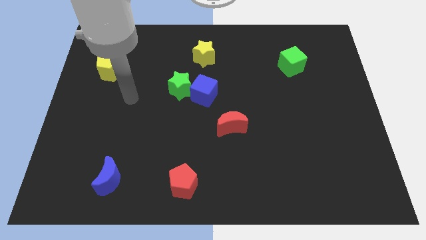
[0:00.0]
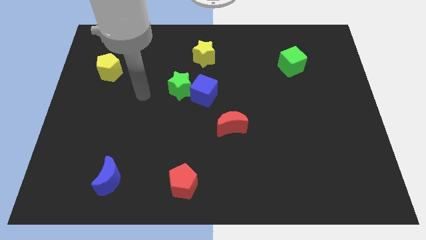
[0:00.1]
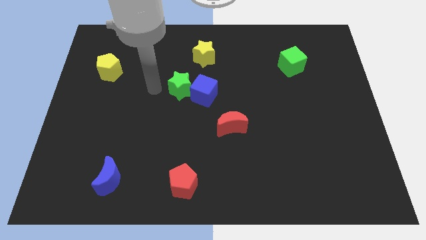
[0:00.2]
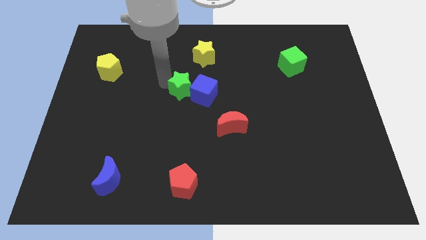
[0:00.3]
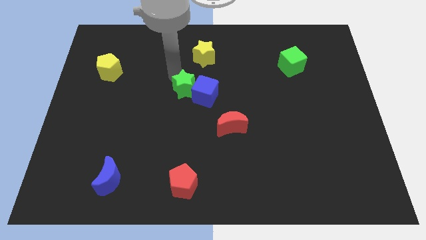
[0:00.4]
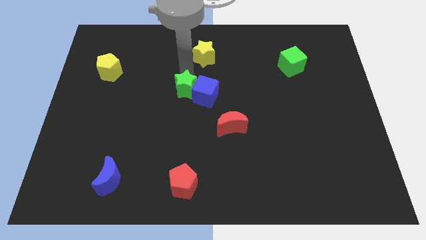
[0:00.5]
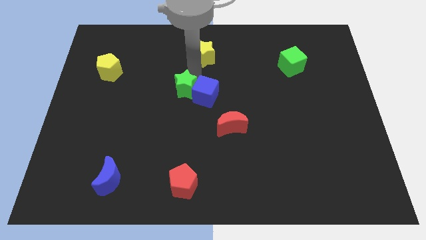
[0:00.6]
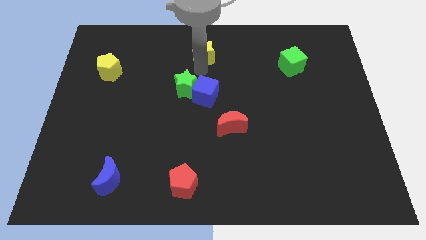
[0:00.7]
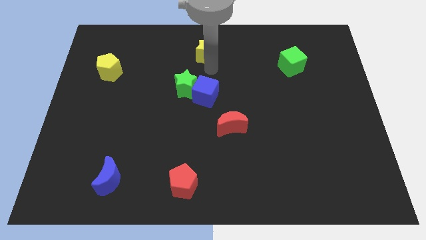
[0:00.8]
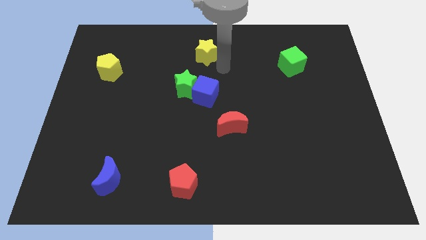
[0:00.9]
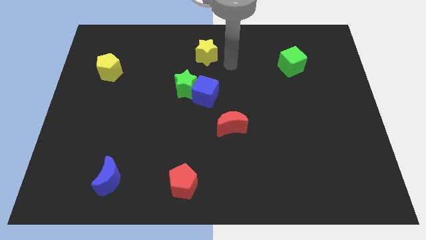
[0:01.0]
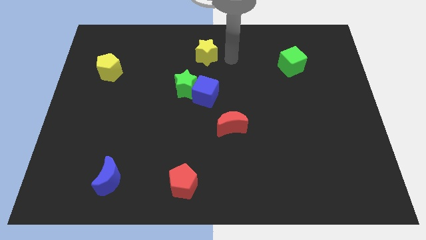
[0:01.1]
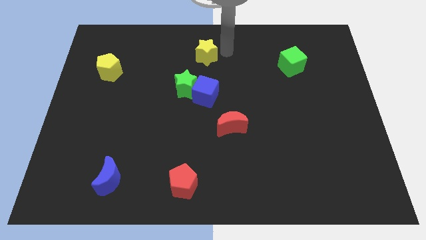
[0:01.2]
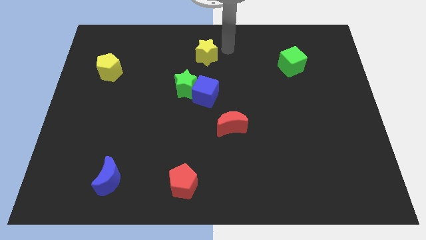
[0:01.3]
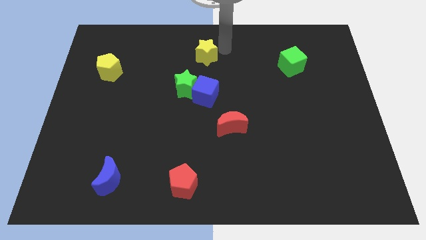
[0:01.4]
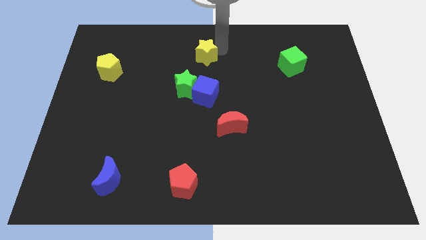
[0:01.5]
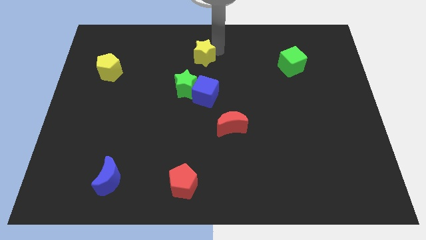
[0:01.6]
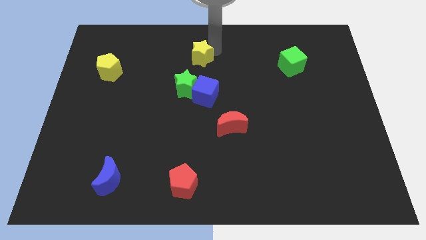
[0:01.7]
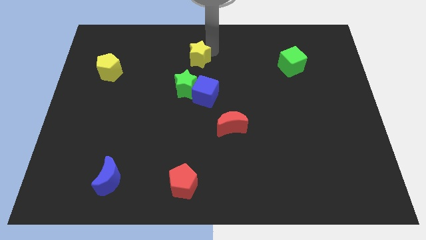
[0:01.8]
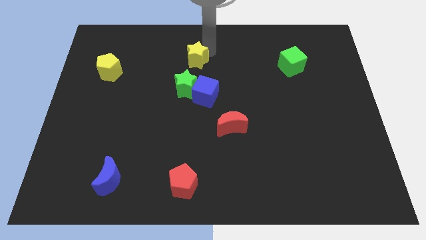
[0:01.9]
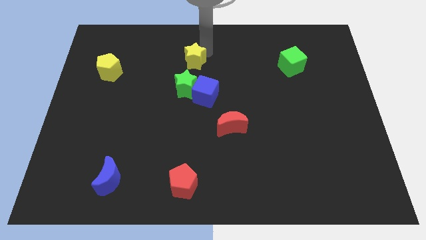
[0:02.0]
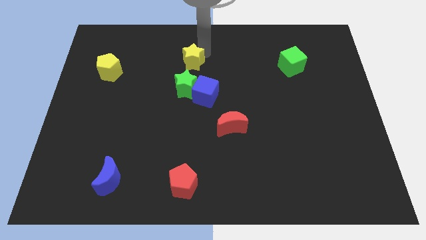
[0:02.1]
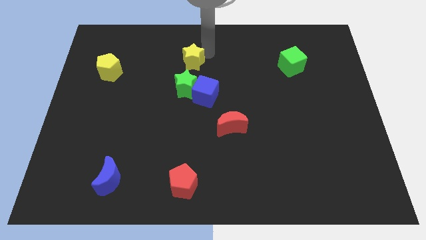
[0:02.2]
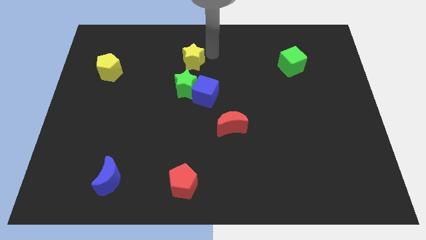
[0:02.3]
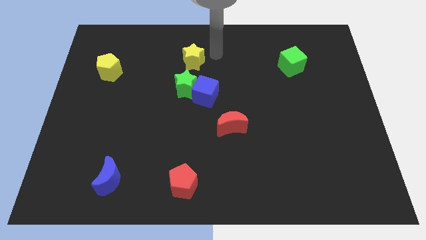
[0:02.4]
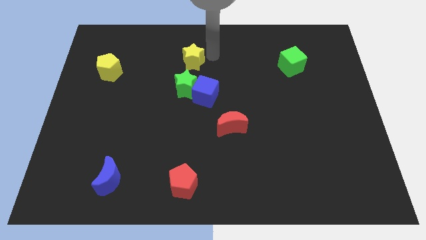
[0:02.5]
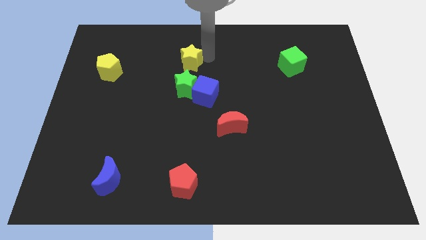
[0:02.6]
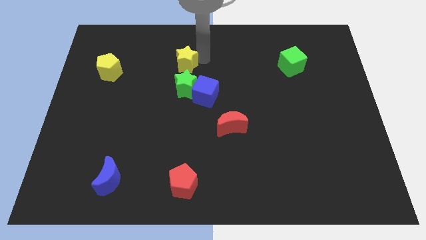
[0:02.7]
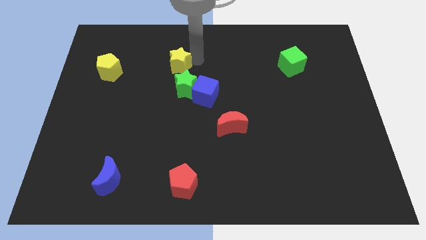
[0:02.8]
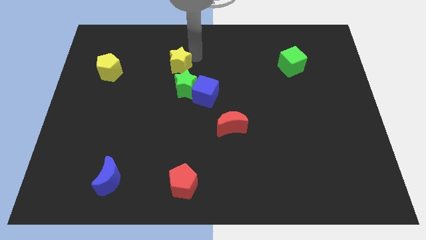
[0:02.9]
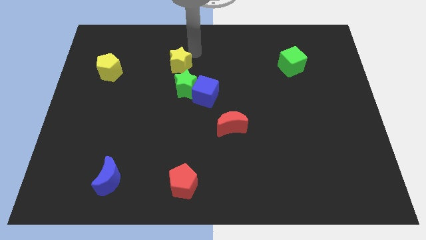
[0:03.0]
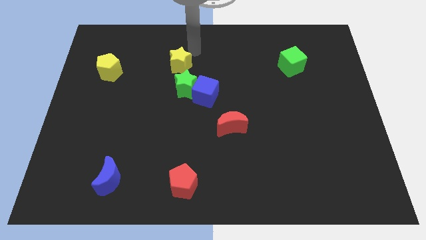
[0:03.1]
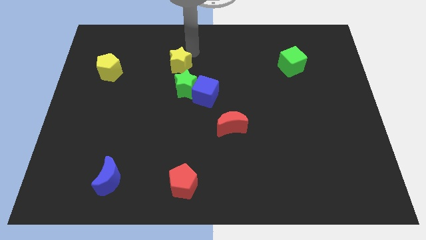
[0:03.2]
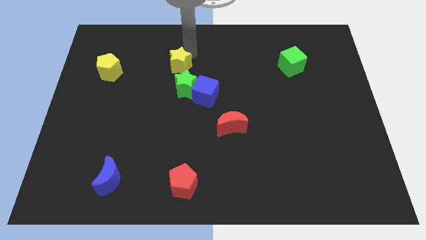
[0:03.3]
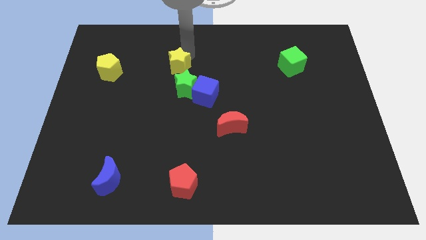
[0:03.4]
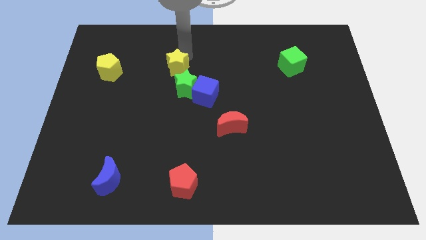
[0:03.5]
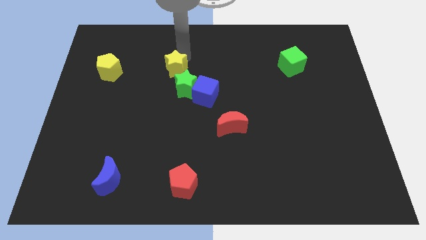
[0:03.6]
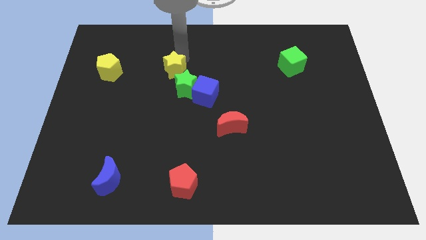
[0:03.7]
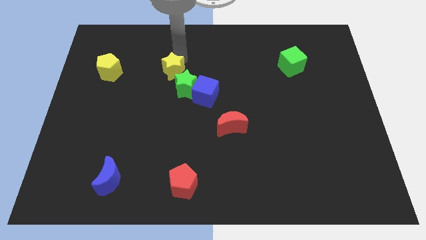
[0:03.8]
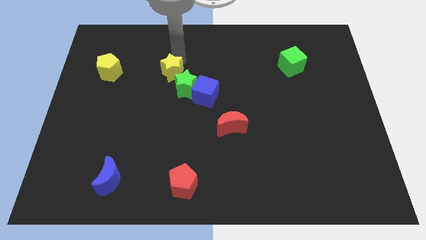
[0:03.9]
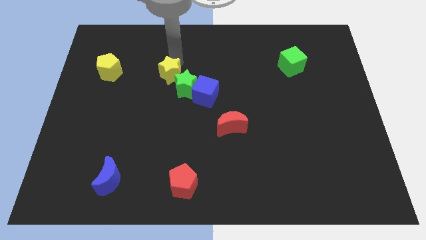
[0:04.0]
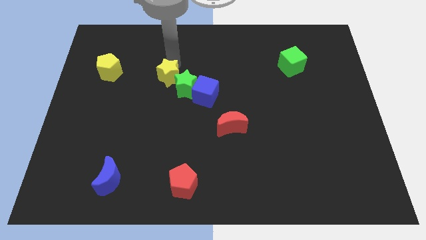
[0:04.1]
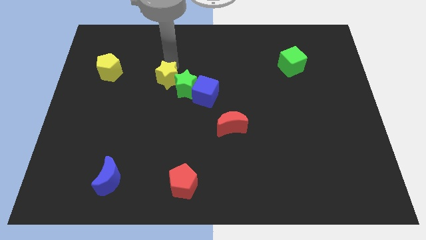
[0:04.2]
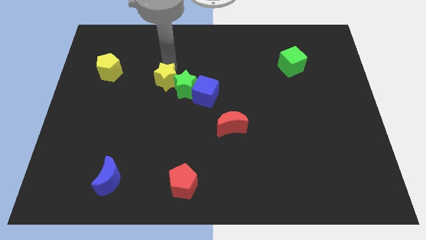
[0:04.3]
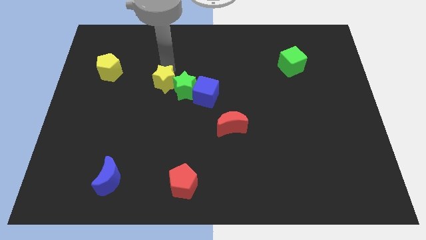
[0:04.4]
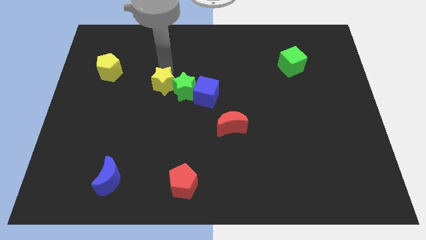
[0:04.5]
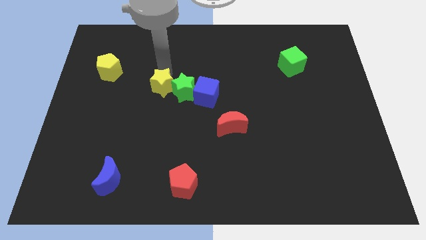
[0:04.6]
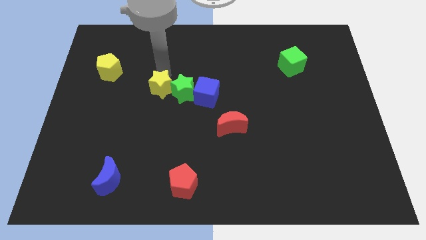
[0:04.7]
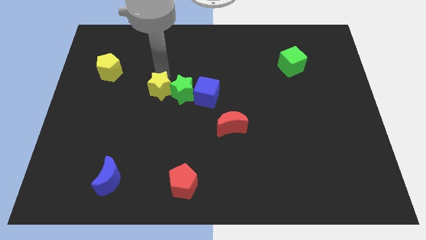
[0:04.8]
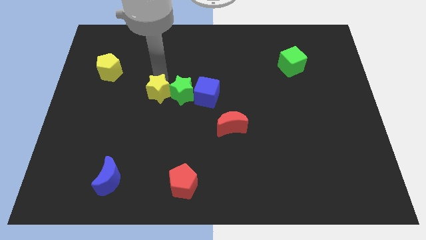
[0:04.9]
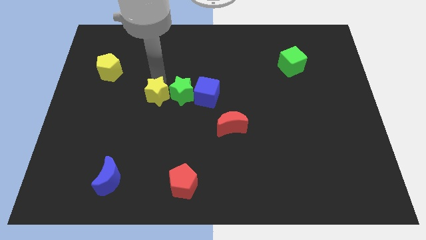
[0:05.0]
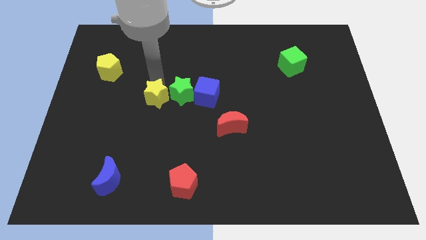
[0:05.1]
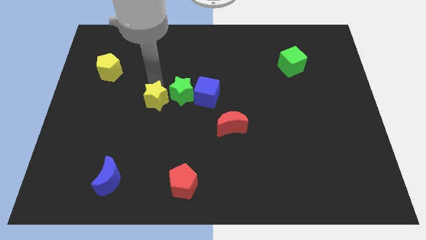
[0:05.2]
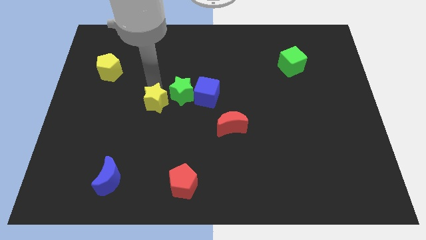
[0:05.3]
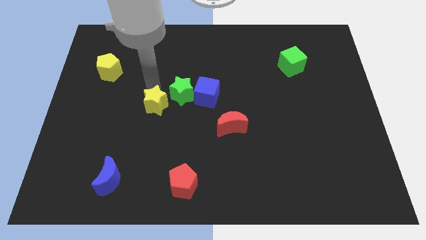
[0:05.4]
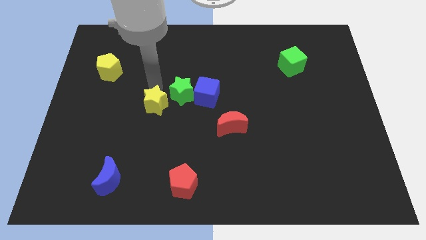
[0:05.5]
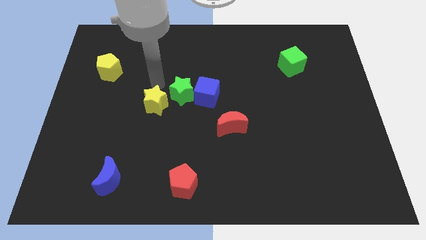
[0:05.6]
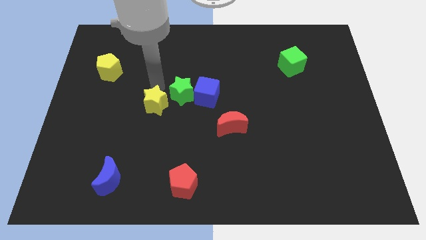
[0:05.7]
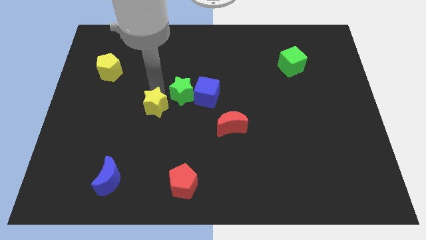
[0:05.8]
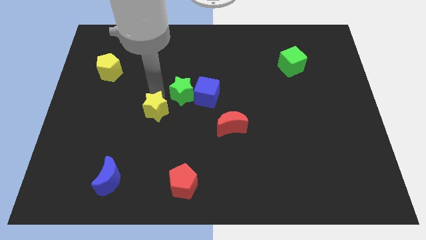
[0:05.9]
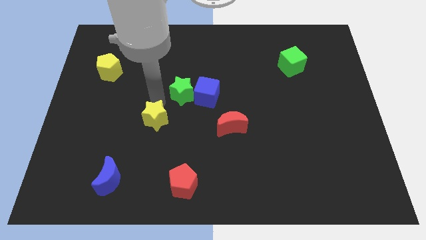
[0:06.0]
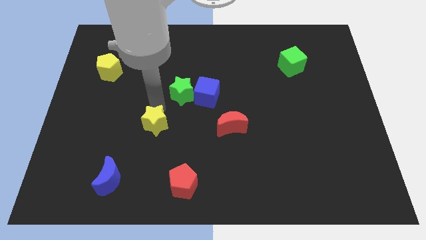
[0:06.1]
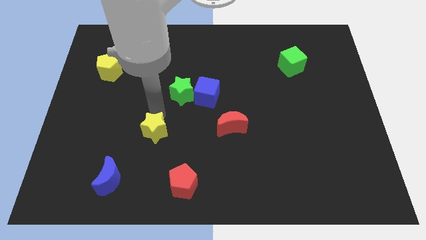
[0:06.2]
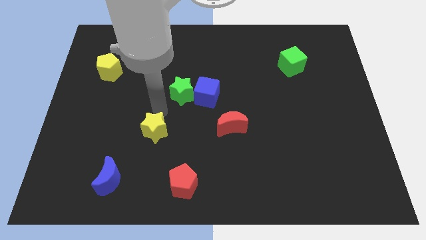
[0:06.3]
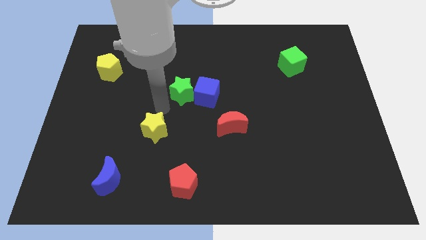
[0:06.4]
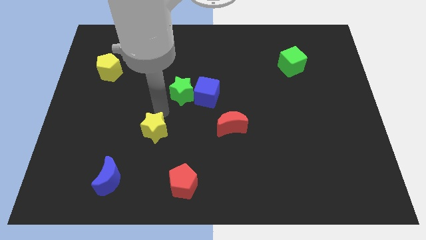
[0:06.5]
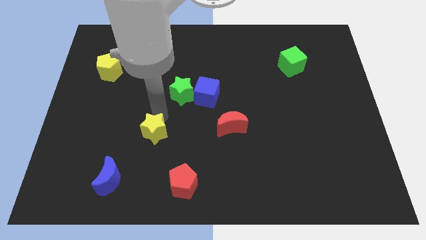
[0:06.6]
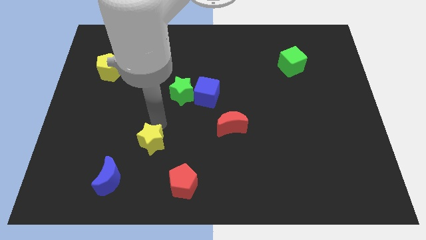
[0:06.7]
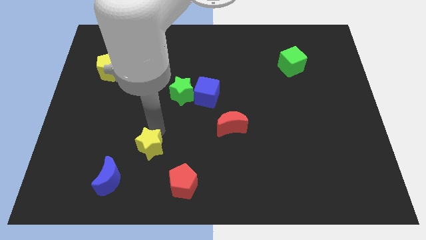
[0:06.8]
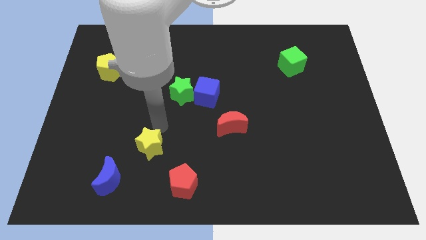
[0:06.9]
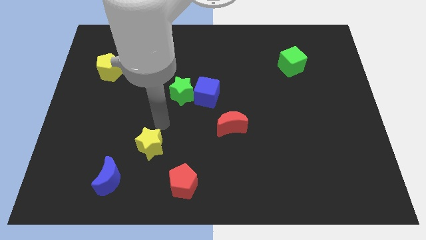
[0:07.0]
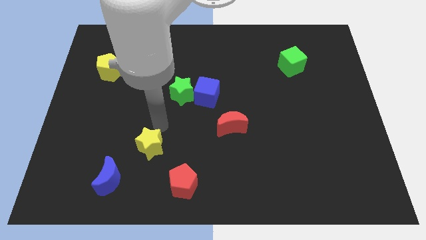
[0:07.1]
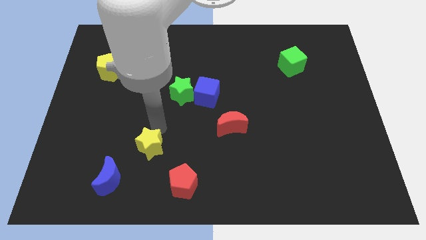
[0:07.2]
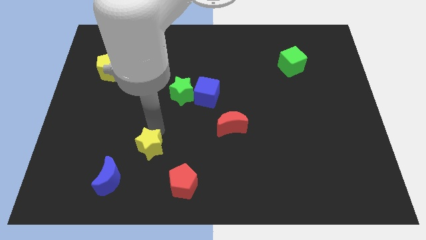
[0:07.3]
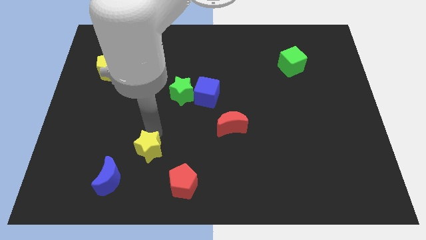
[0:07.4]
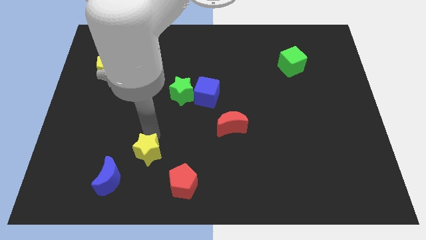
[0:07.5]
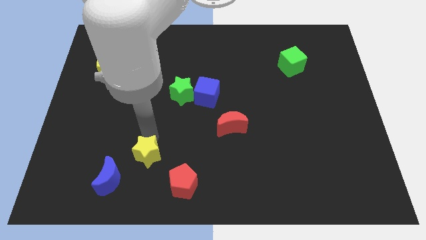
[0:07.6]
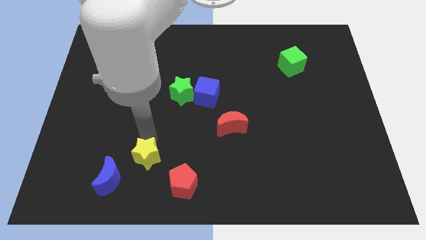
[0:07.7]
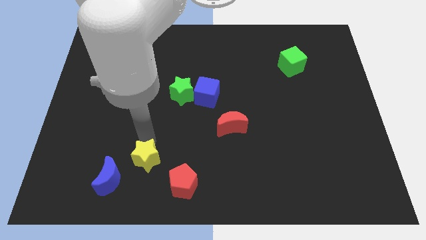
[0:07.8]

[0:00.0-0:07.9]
put the yellow star to the right side of the blue moon
